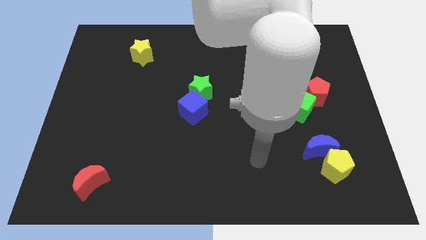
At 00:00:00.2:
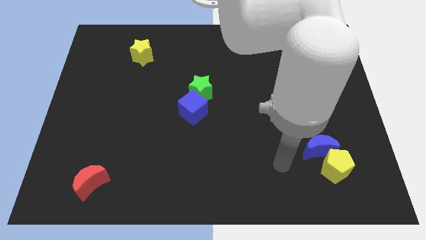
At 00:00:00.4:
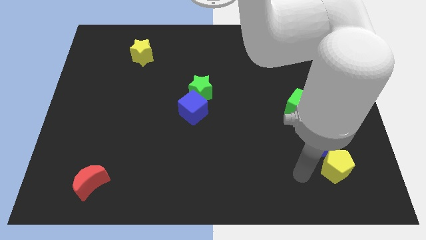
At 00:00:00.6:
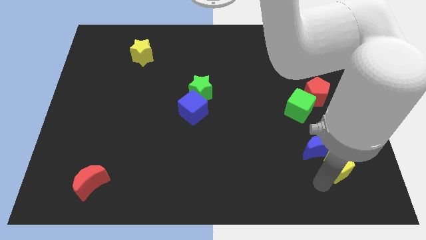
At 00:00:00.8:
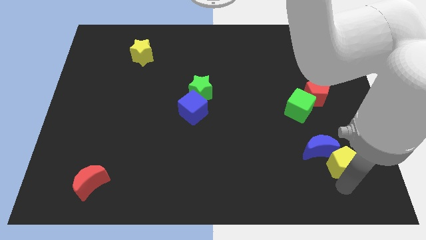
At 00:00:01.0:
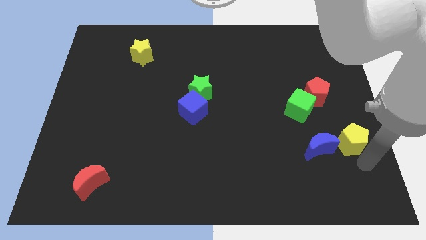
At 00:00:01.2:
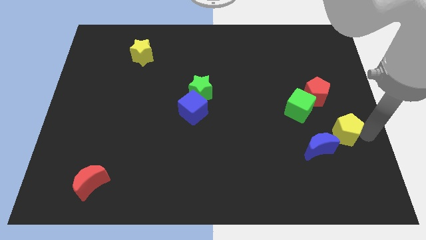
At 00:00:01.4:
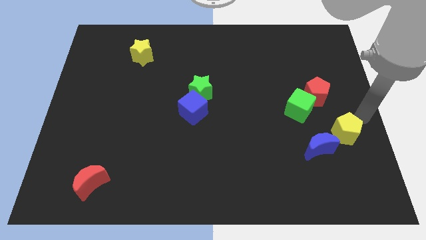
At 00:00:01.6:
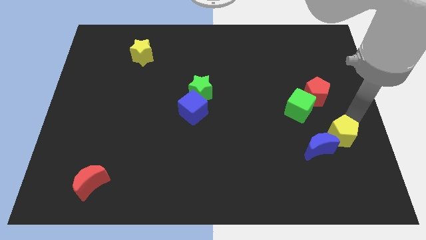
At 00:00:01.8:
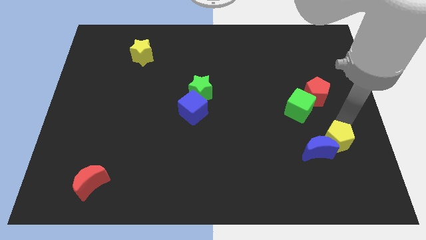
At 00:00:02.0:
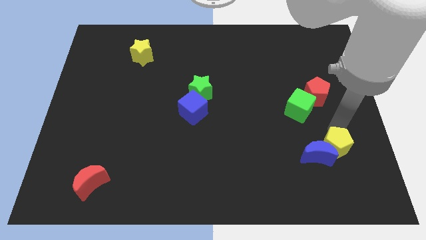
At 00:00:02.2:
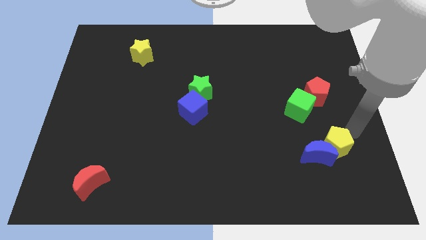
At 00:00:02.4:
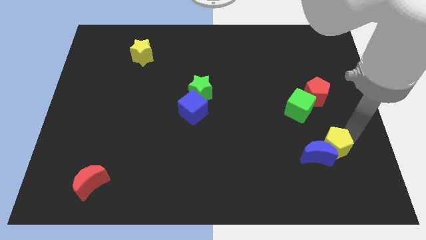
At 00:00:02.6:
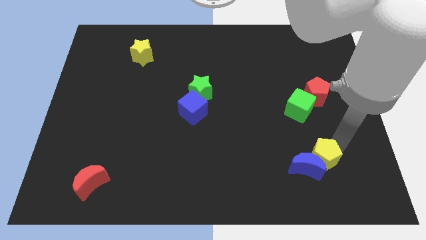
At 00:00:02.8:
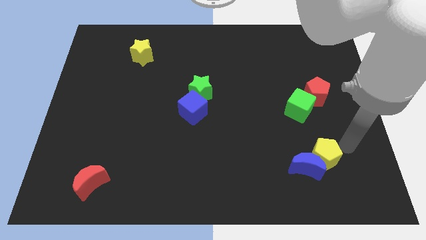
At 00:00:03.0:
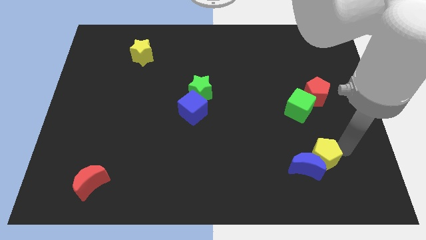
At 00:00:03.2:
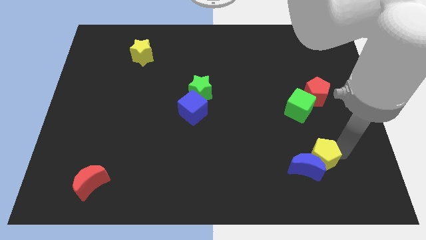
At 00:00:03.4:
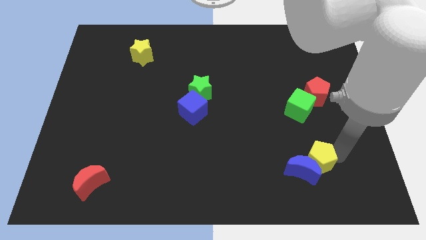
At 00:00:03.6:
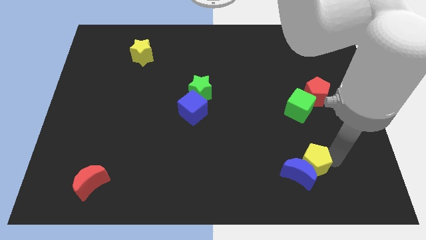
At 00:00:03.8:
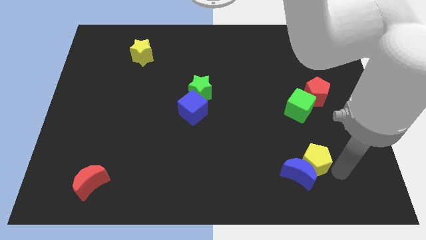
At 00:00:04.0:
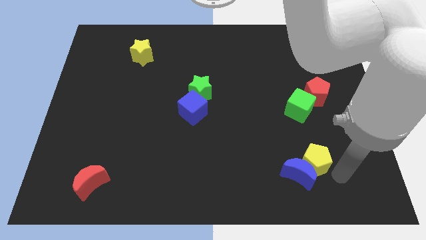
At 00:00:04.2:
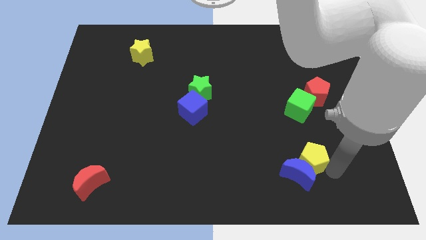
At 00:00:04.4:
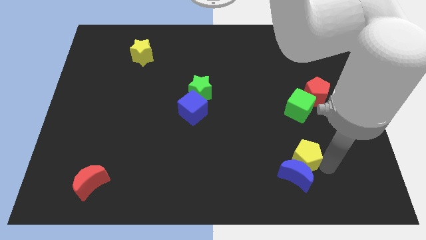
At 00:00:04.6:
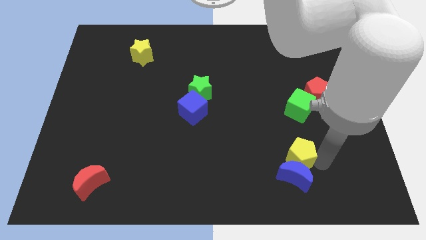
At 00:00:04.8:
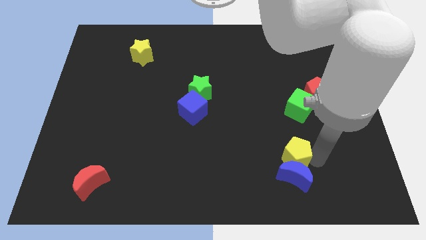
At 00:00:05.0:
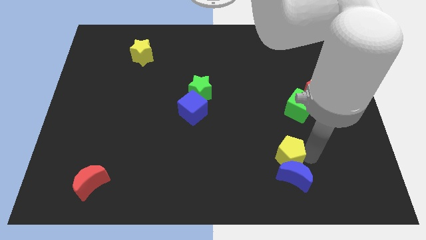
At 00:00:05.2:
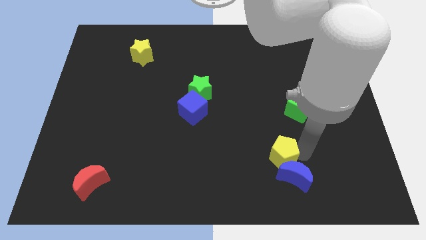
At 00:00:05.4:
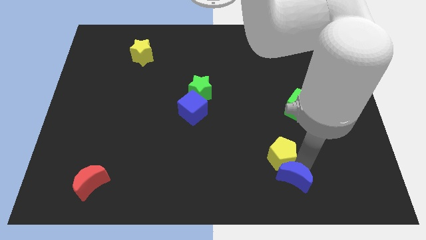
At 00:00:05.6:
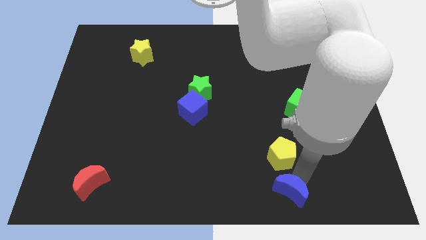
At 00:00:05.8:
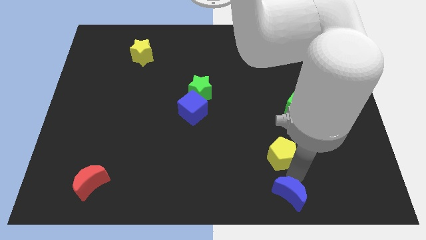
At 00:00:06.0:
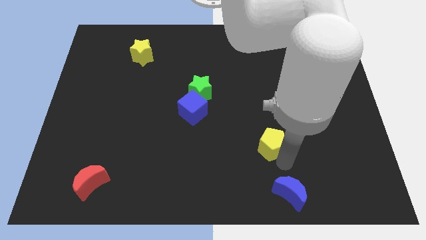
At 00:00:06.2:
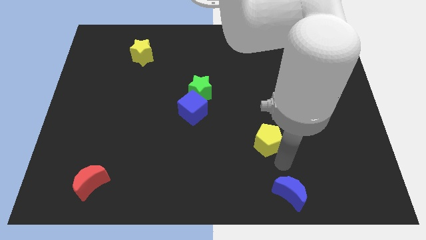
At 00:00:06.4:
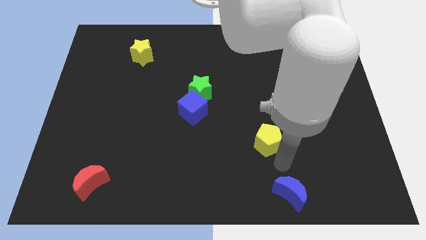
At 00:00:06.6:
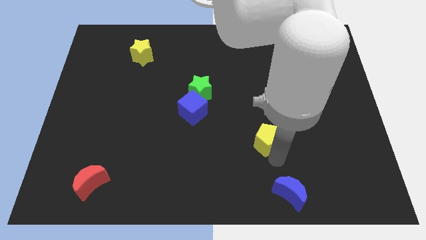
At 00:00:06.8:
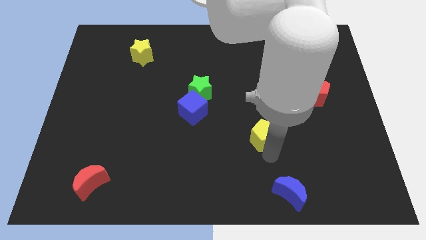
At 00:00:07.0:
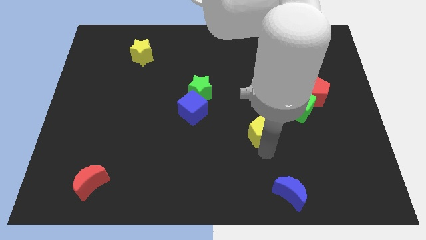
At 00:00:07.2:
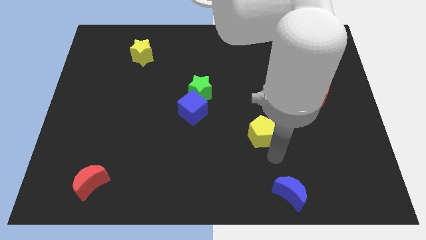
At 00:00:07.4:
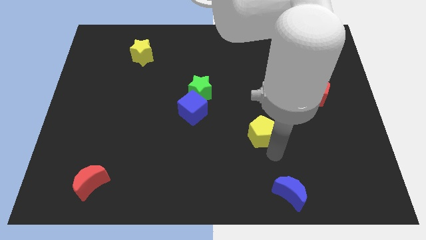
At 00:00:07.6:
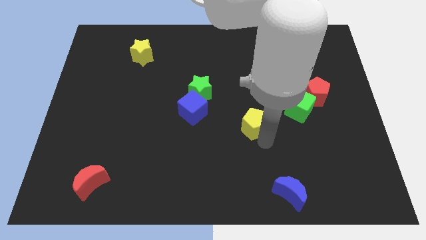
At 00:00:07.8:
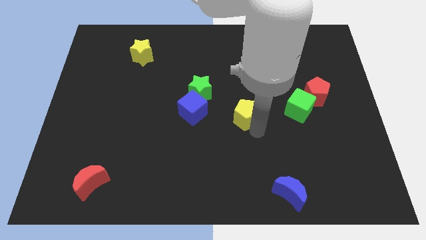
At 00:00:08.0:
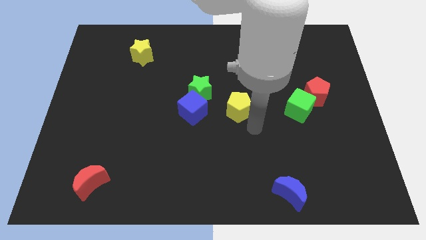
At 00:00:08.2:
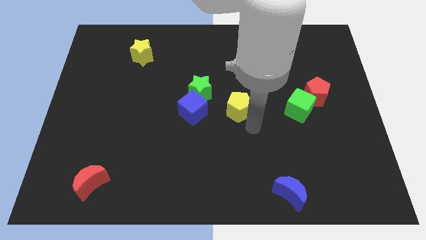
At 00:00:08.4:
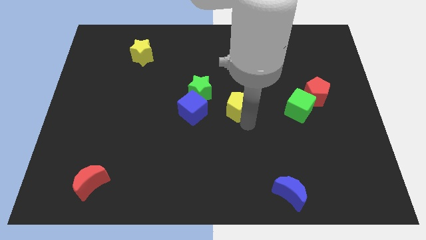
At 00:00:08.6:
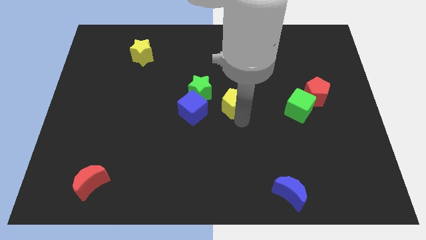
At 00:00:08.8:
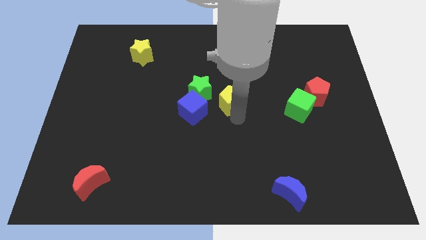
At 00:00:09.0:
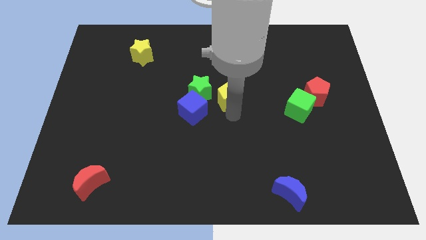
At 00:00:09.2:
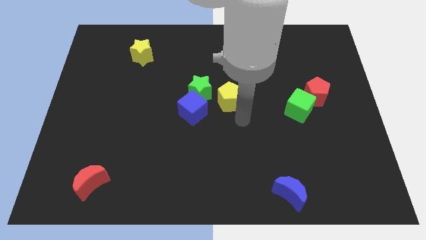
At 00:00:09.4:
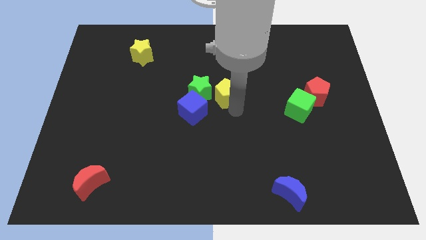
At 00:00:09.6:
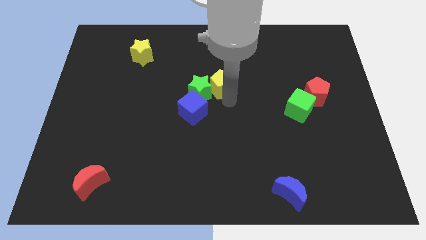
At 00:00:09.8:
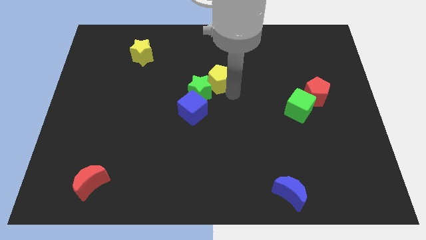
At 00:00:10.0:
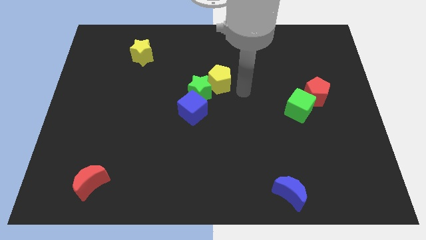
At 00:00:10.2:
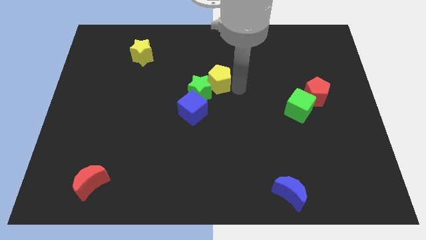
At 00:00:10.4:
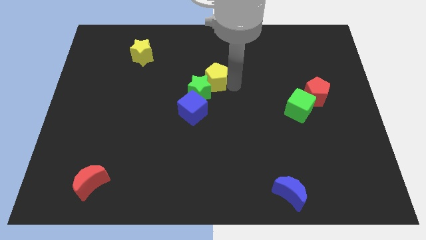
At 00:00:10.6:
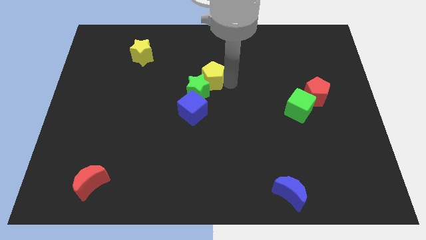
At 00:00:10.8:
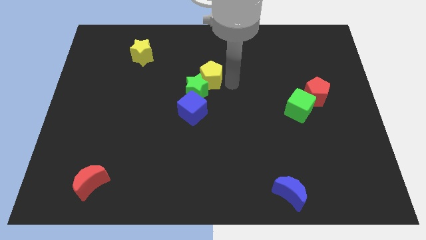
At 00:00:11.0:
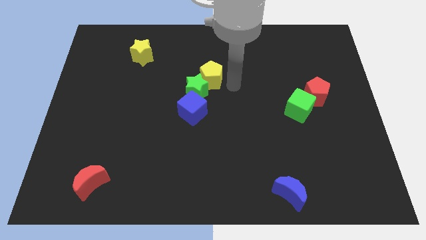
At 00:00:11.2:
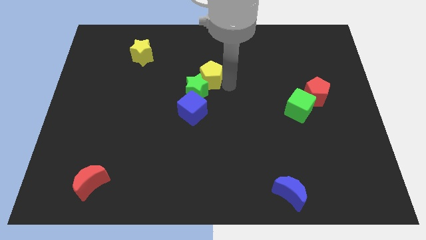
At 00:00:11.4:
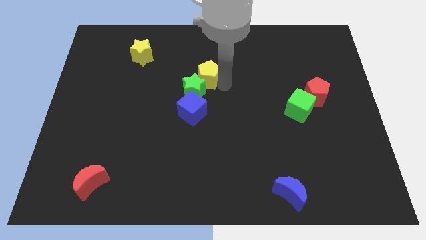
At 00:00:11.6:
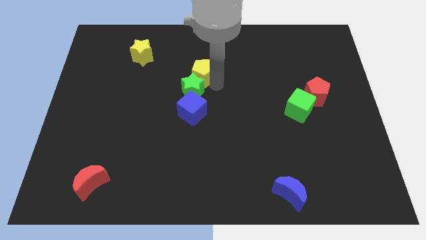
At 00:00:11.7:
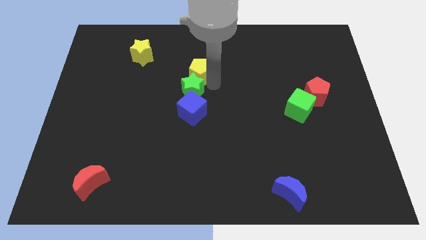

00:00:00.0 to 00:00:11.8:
slide the yellow pentagon to the top left of the green star

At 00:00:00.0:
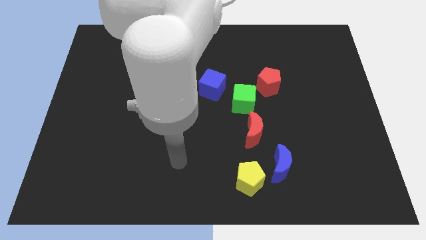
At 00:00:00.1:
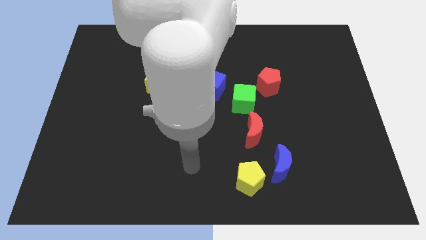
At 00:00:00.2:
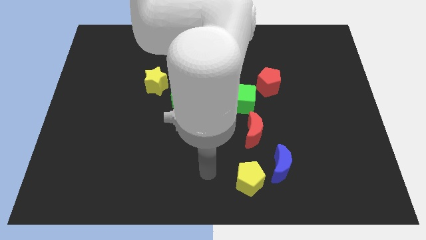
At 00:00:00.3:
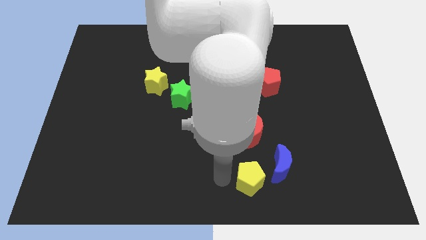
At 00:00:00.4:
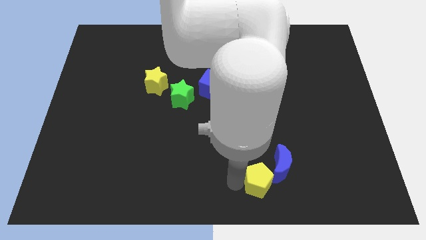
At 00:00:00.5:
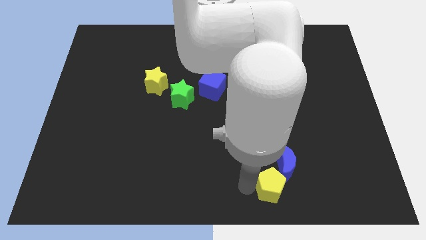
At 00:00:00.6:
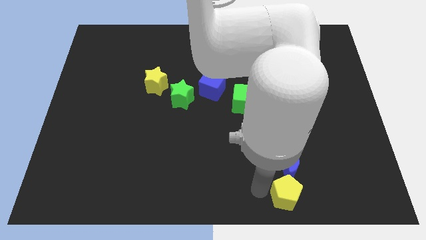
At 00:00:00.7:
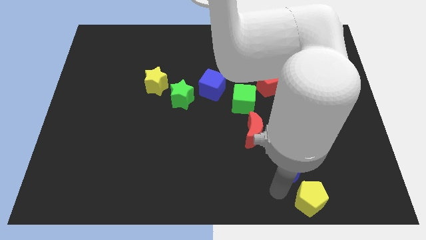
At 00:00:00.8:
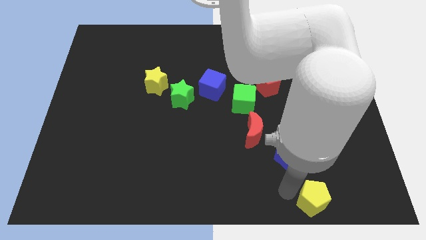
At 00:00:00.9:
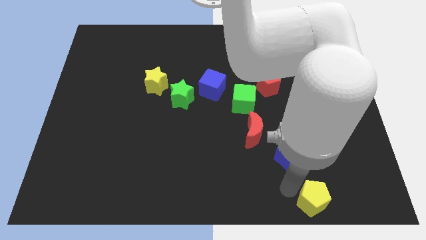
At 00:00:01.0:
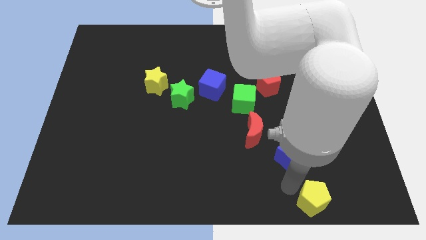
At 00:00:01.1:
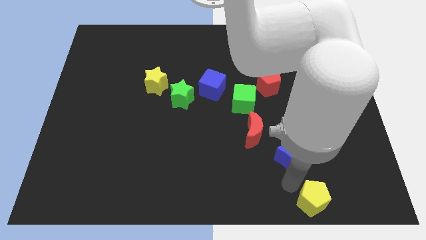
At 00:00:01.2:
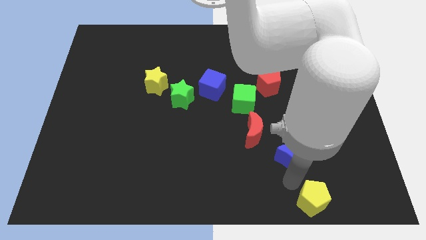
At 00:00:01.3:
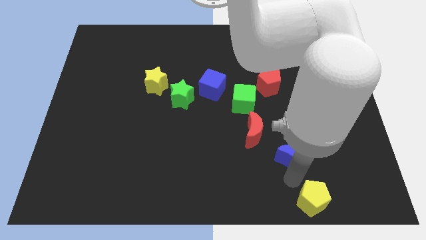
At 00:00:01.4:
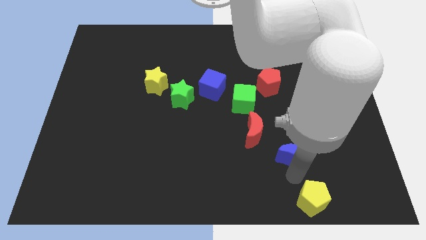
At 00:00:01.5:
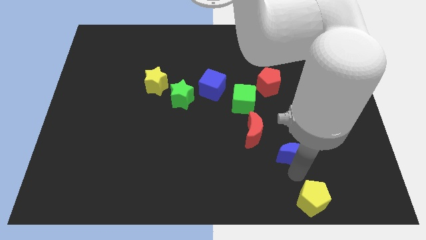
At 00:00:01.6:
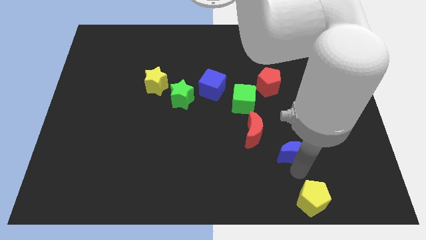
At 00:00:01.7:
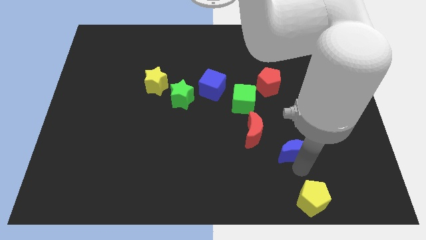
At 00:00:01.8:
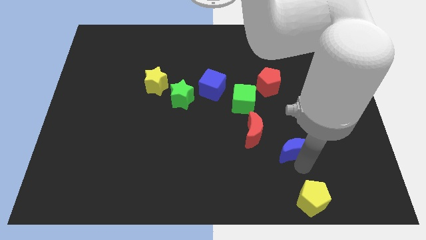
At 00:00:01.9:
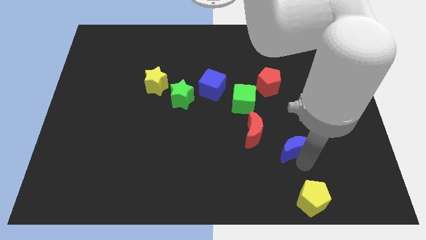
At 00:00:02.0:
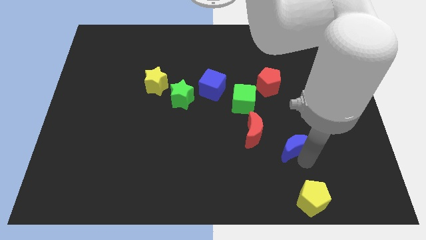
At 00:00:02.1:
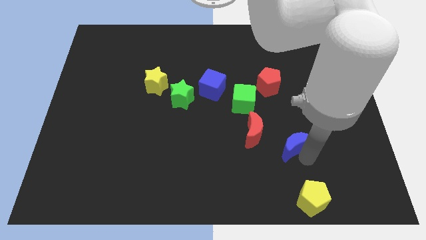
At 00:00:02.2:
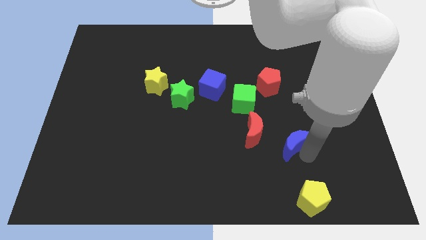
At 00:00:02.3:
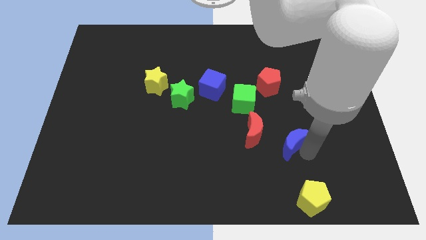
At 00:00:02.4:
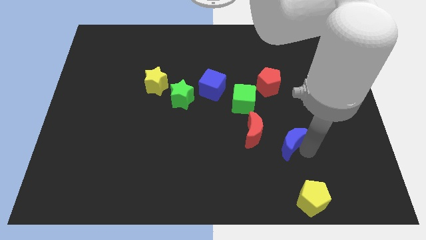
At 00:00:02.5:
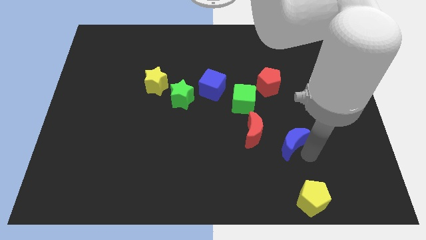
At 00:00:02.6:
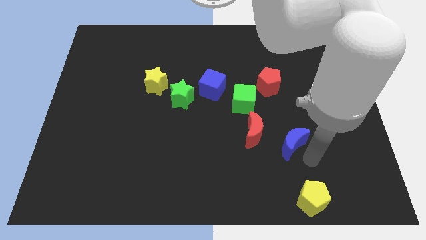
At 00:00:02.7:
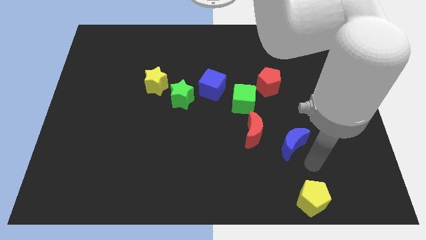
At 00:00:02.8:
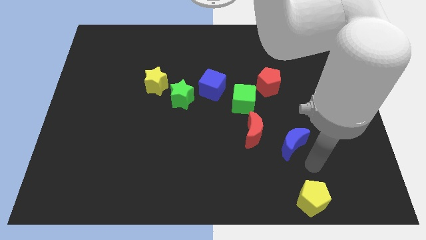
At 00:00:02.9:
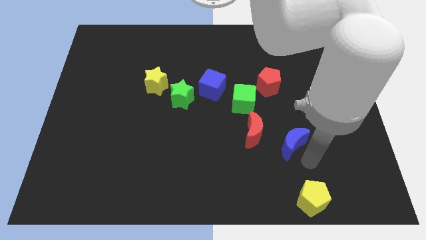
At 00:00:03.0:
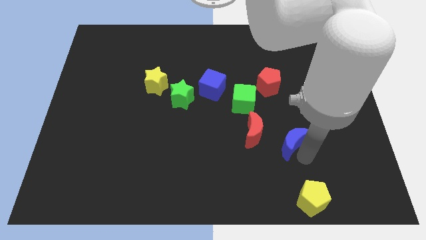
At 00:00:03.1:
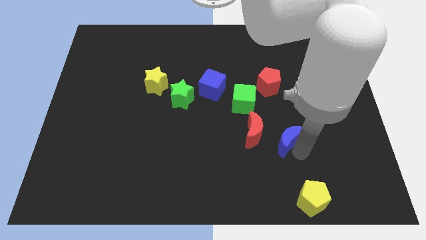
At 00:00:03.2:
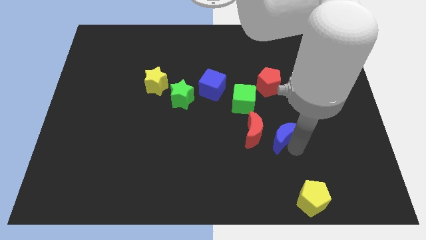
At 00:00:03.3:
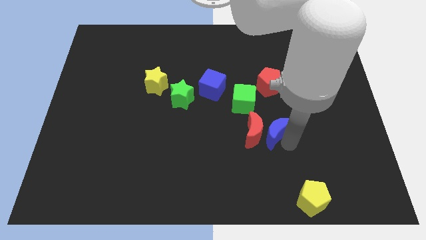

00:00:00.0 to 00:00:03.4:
put the blue moon diagonally down and to the right of the green cube
